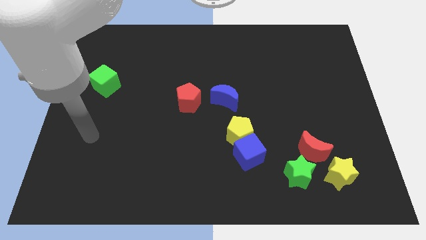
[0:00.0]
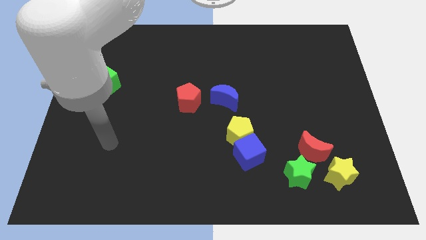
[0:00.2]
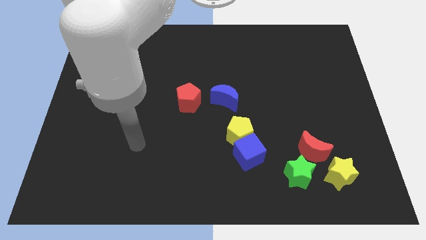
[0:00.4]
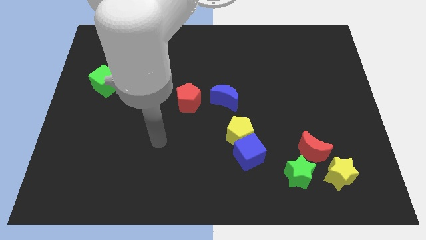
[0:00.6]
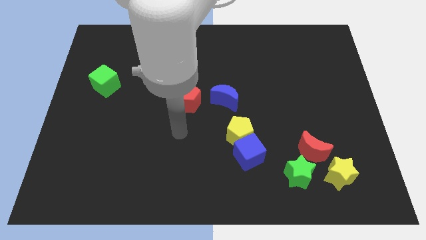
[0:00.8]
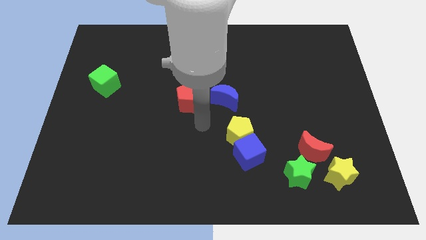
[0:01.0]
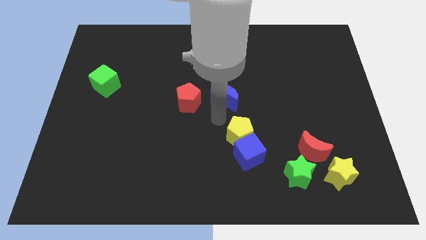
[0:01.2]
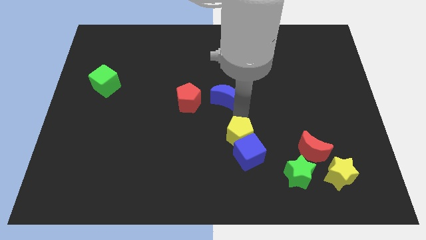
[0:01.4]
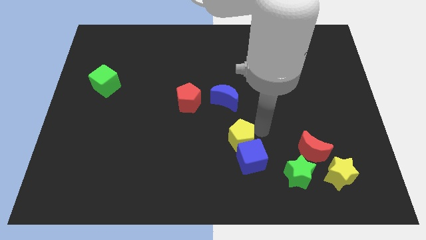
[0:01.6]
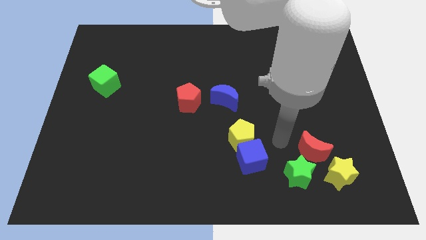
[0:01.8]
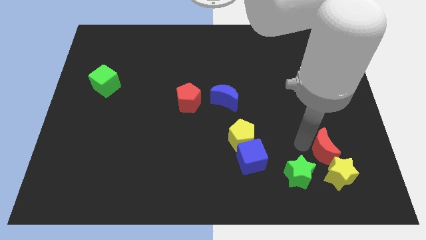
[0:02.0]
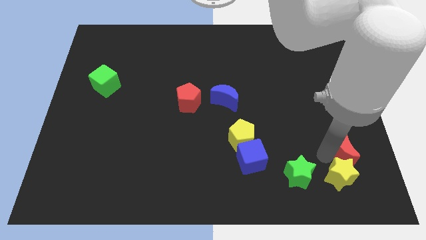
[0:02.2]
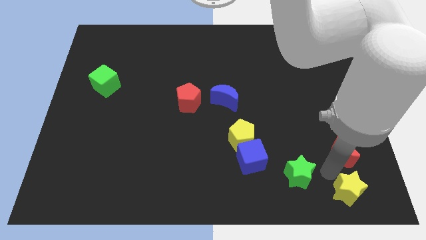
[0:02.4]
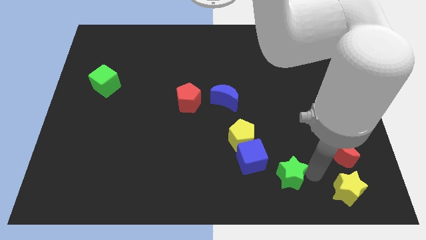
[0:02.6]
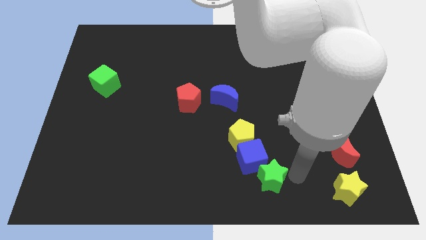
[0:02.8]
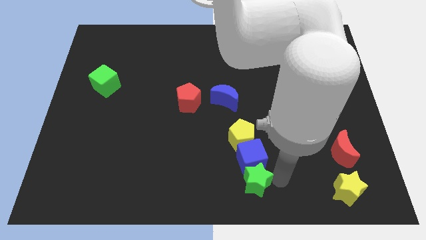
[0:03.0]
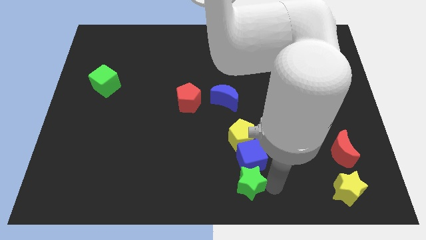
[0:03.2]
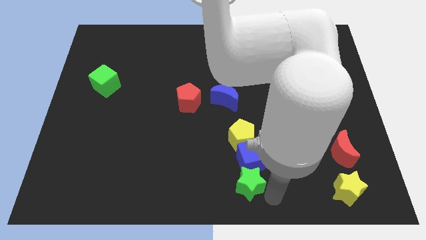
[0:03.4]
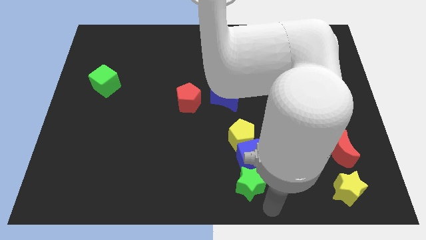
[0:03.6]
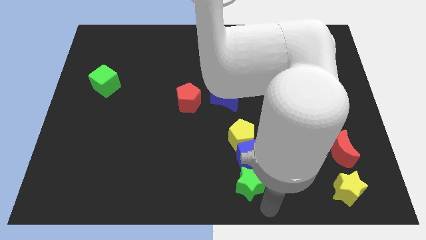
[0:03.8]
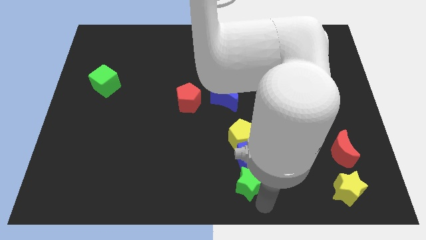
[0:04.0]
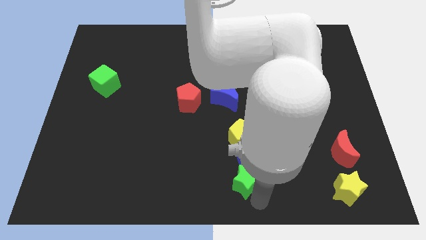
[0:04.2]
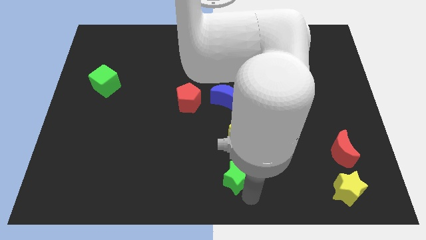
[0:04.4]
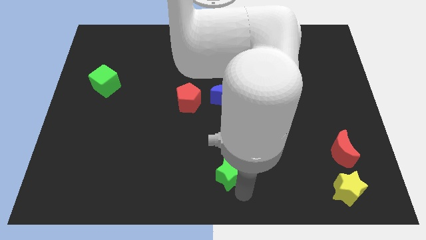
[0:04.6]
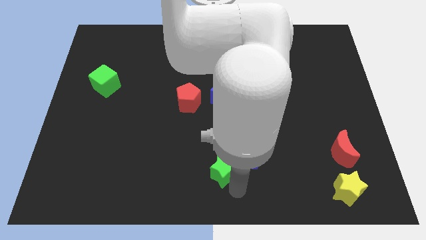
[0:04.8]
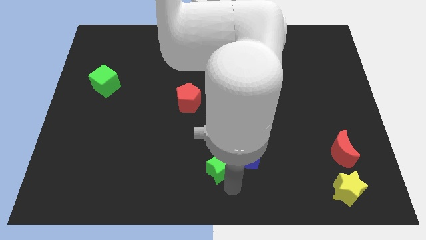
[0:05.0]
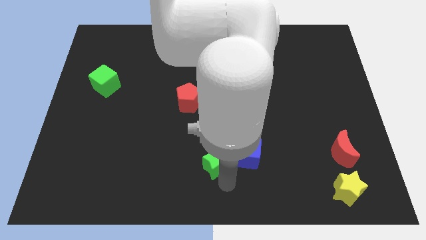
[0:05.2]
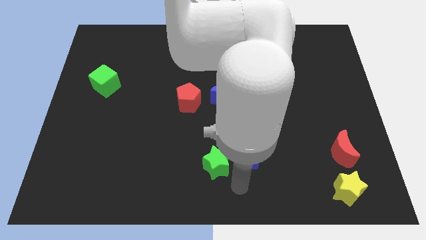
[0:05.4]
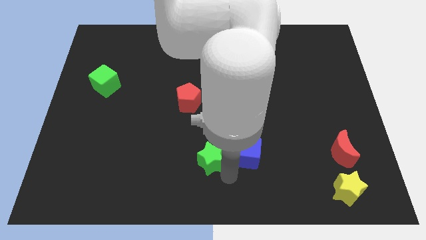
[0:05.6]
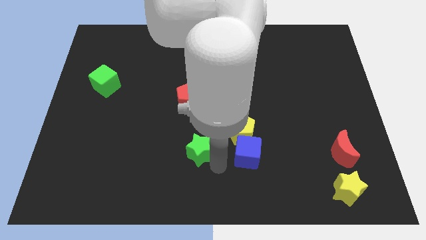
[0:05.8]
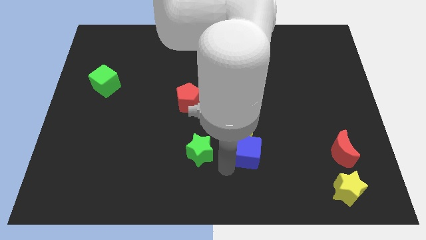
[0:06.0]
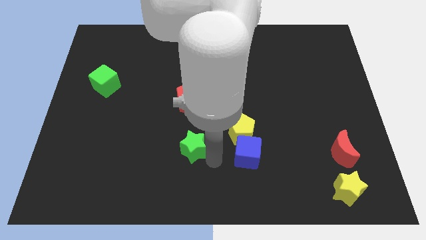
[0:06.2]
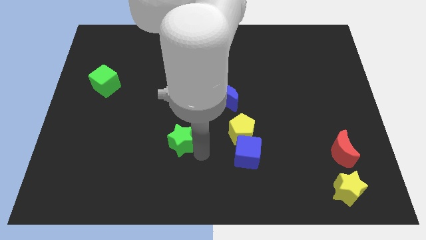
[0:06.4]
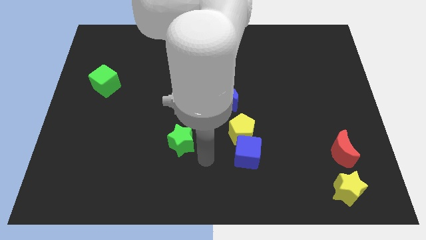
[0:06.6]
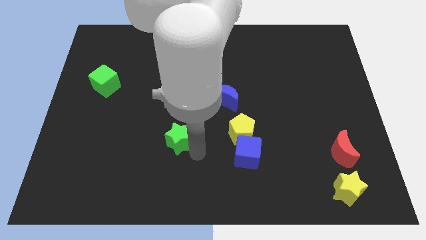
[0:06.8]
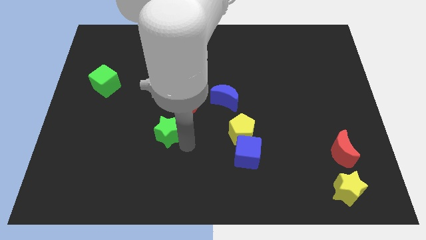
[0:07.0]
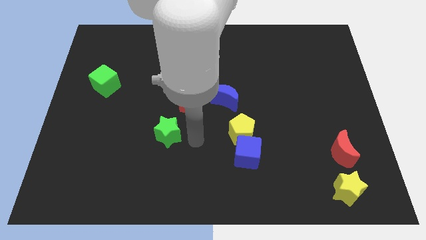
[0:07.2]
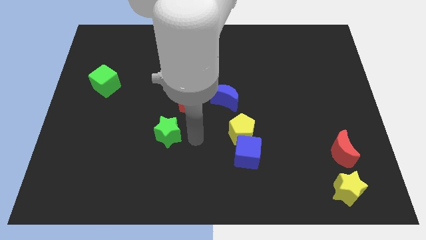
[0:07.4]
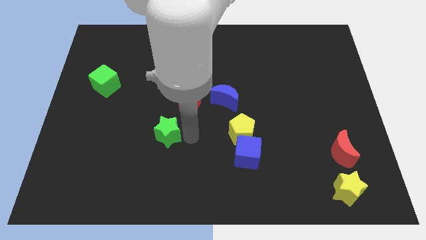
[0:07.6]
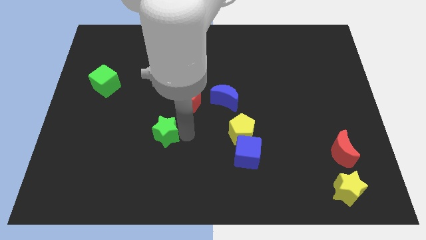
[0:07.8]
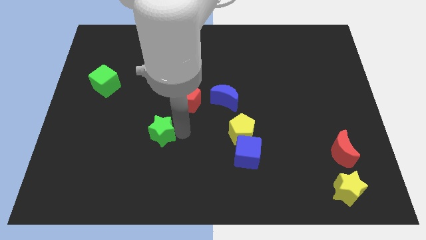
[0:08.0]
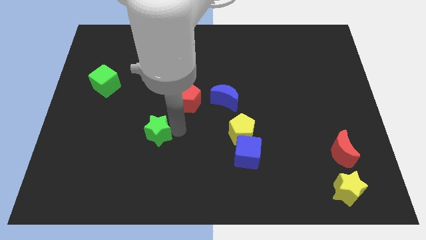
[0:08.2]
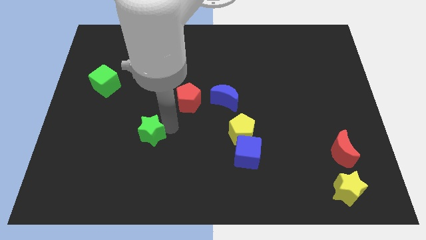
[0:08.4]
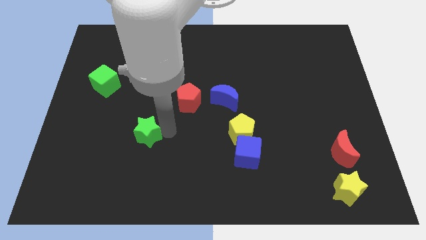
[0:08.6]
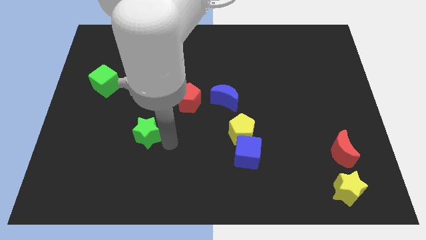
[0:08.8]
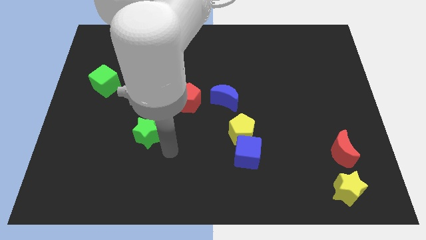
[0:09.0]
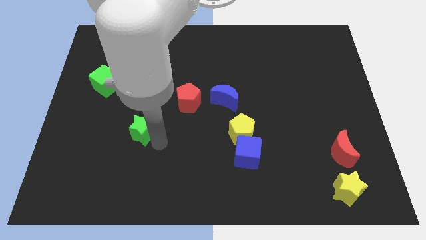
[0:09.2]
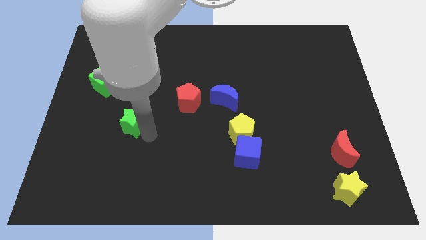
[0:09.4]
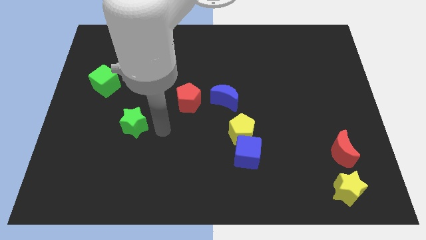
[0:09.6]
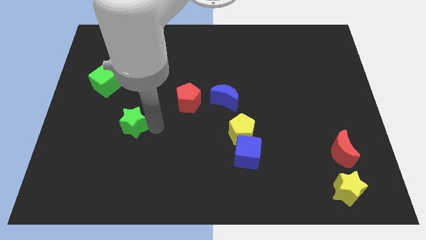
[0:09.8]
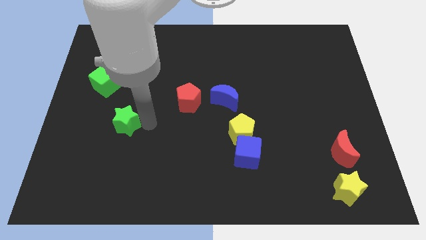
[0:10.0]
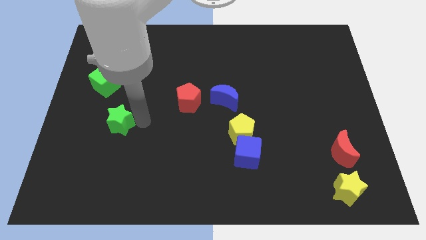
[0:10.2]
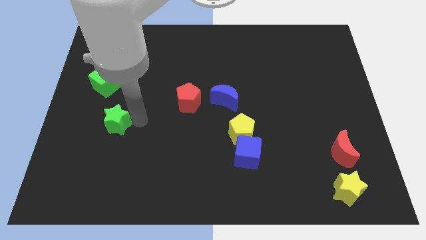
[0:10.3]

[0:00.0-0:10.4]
put the green star to the bottom side of the green cube

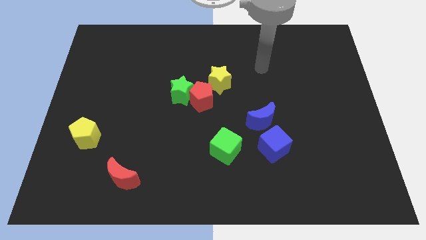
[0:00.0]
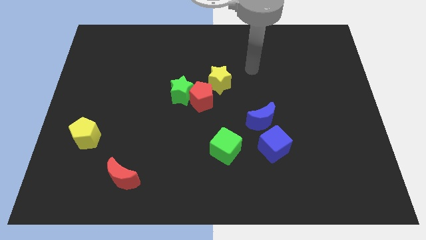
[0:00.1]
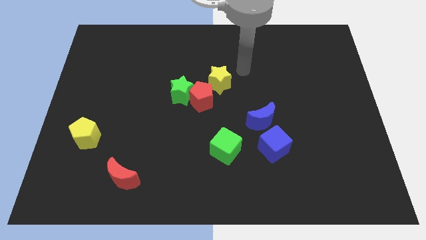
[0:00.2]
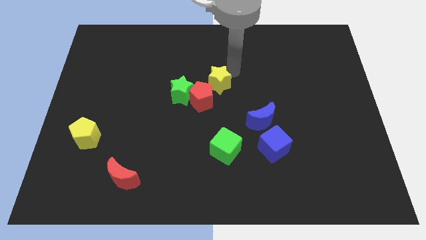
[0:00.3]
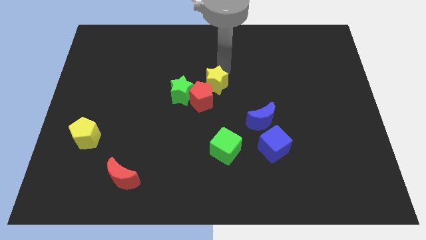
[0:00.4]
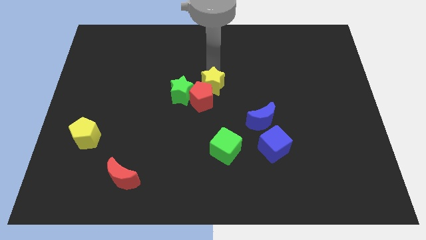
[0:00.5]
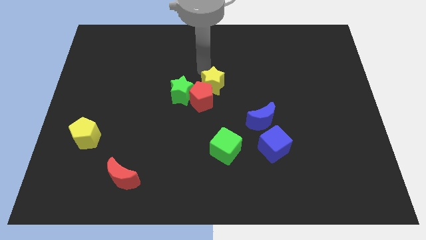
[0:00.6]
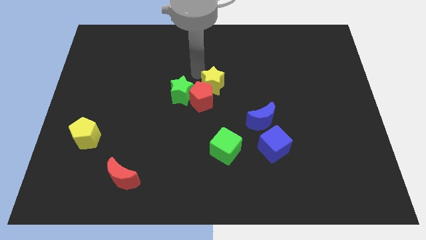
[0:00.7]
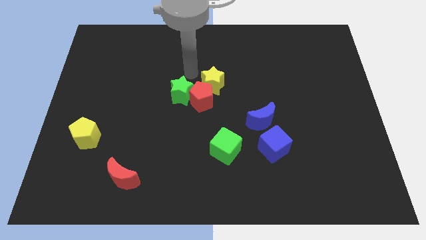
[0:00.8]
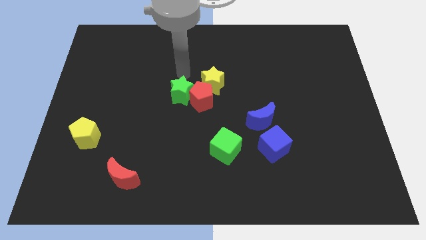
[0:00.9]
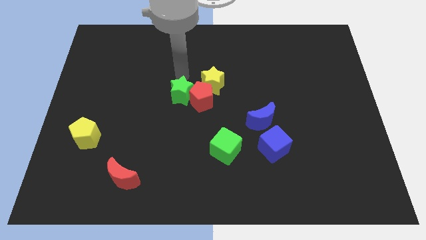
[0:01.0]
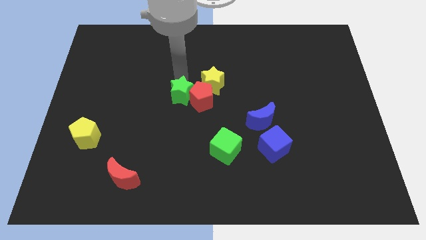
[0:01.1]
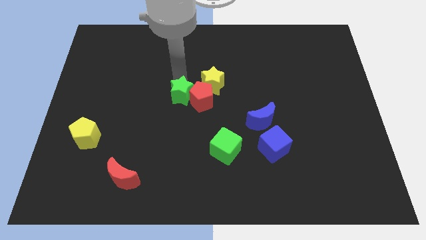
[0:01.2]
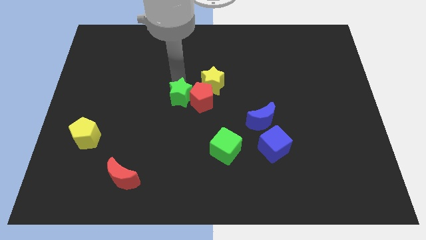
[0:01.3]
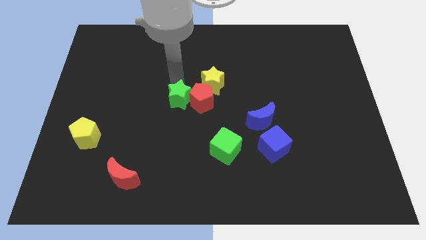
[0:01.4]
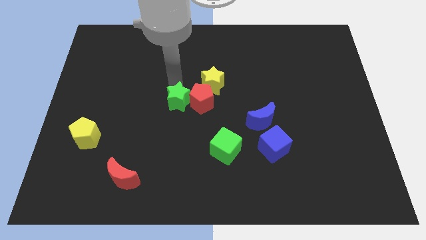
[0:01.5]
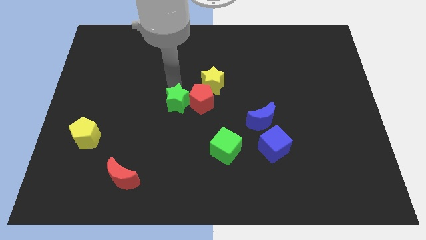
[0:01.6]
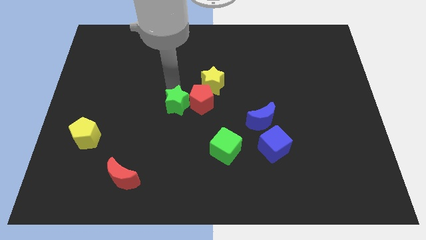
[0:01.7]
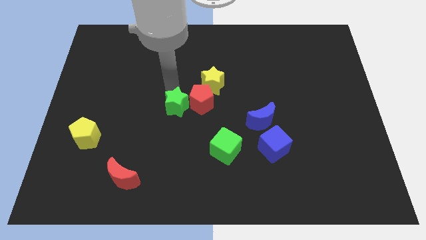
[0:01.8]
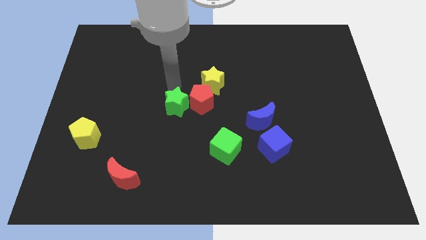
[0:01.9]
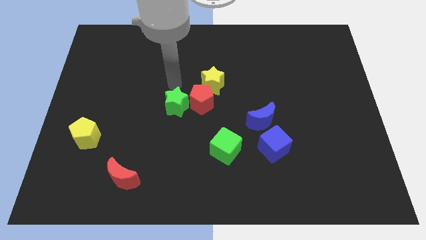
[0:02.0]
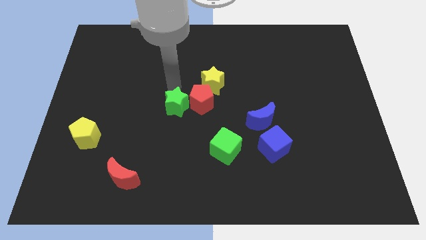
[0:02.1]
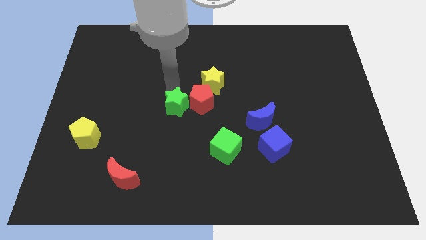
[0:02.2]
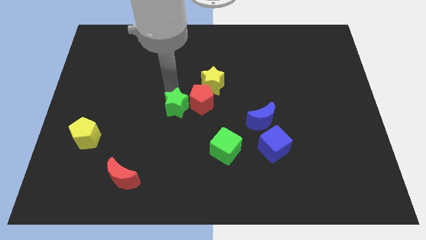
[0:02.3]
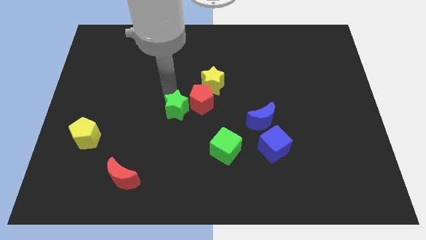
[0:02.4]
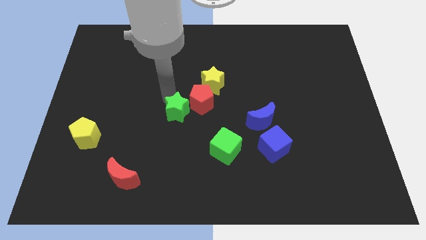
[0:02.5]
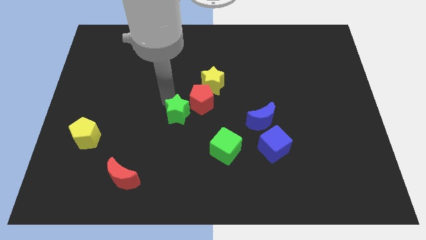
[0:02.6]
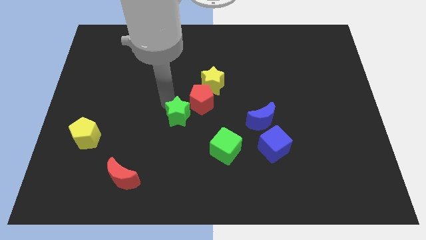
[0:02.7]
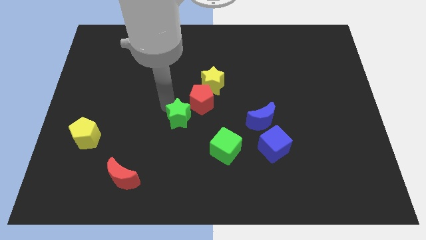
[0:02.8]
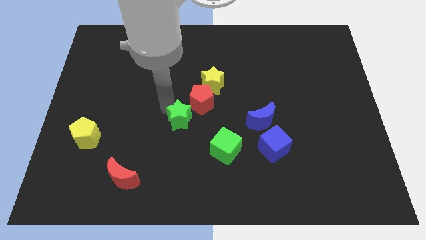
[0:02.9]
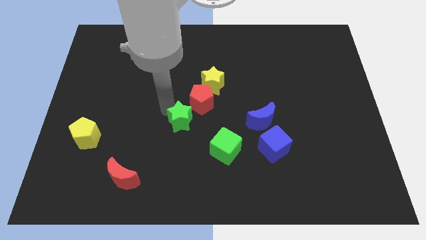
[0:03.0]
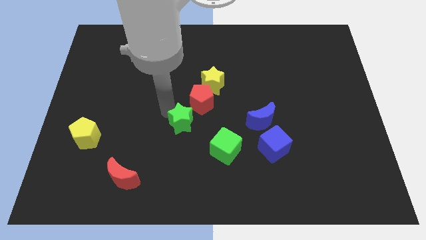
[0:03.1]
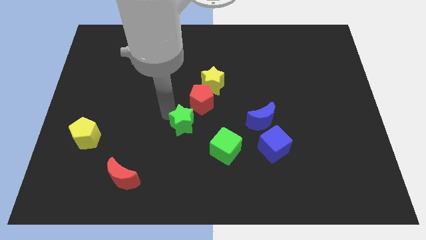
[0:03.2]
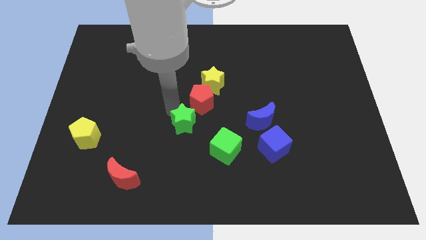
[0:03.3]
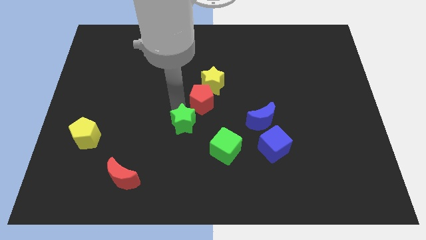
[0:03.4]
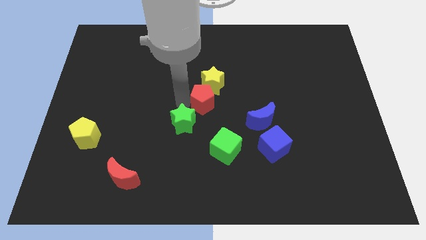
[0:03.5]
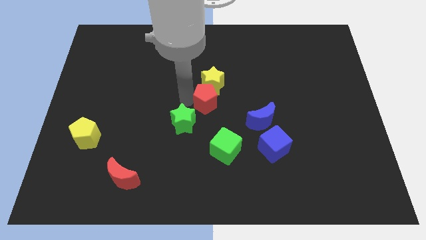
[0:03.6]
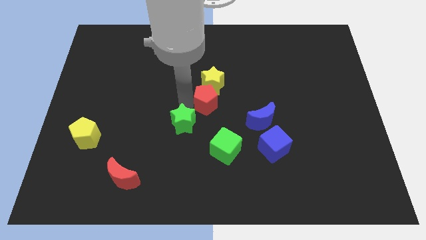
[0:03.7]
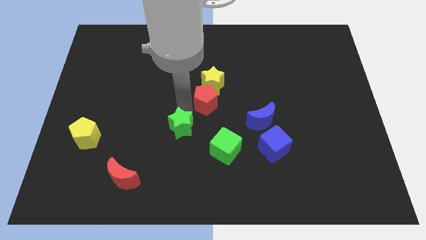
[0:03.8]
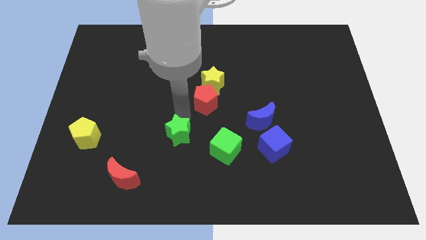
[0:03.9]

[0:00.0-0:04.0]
put the green star just left of the green cube
